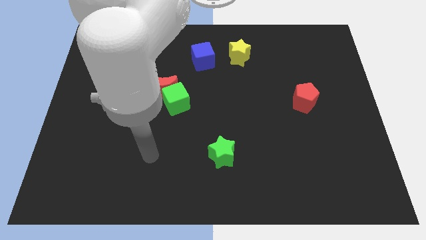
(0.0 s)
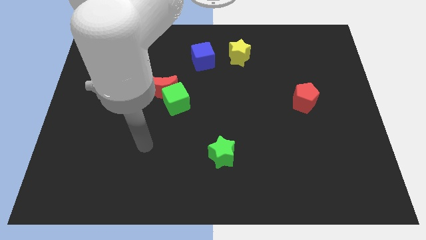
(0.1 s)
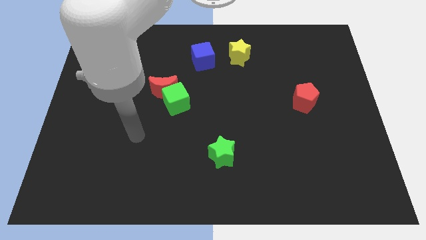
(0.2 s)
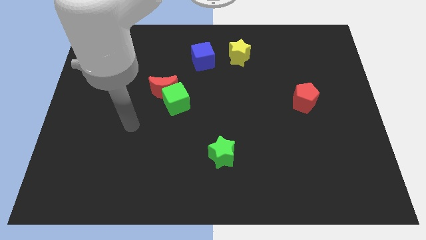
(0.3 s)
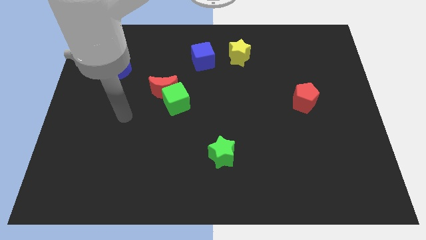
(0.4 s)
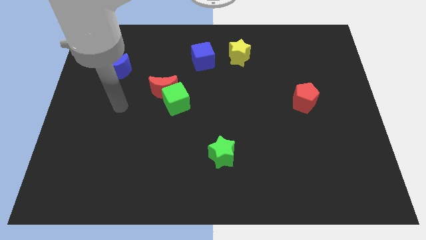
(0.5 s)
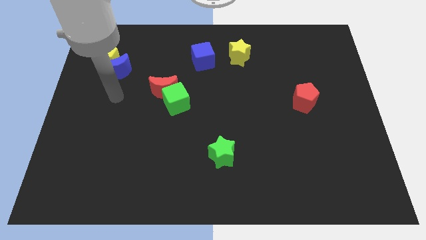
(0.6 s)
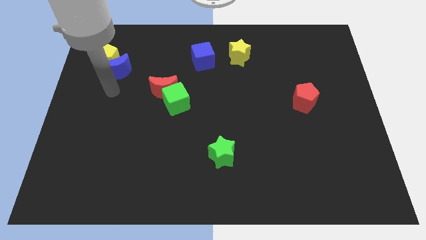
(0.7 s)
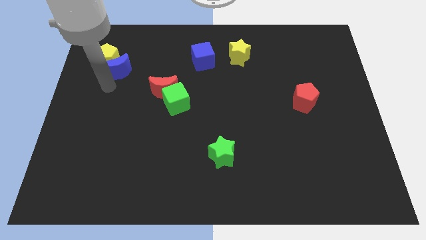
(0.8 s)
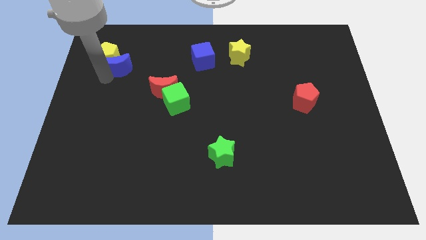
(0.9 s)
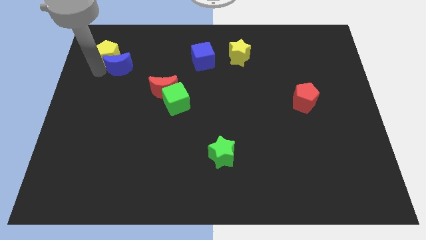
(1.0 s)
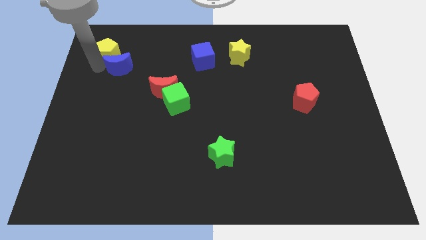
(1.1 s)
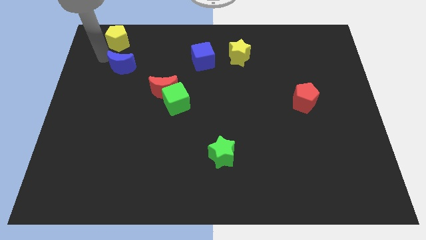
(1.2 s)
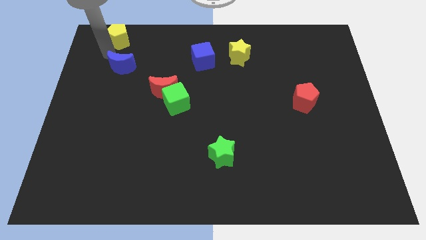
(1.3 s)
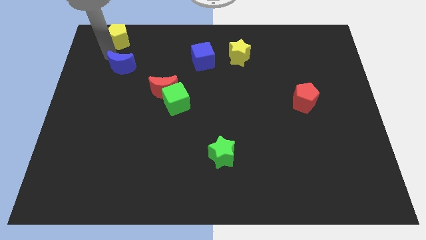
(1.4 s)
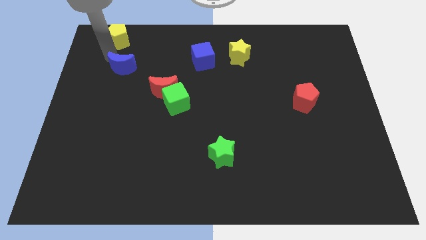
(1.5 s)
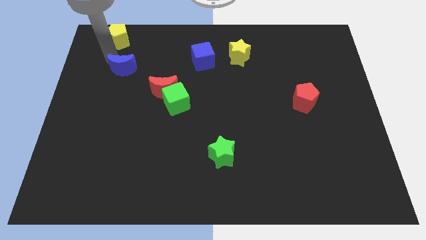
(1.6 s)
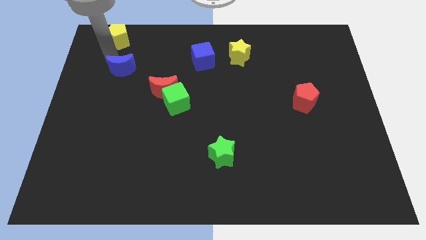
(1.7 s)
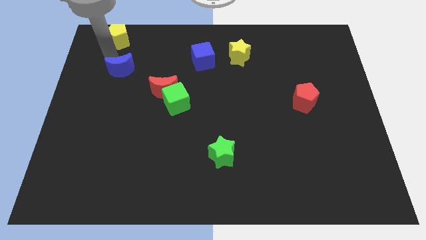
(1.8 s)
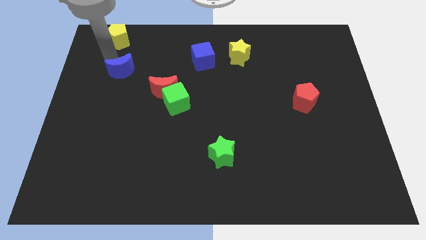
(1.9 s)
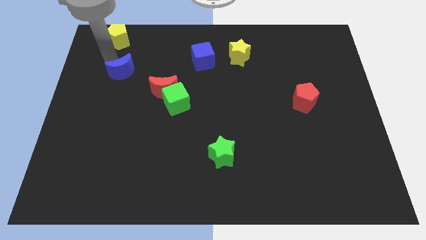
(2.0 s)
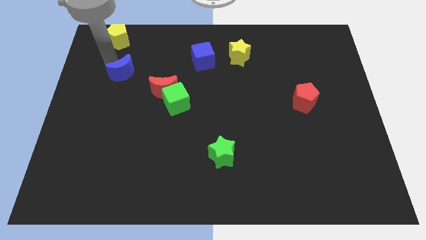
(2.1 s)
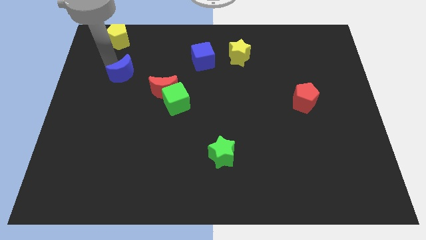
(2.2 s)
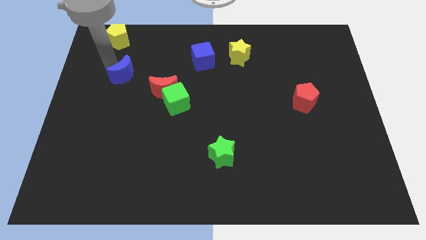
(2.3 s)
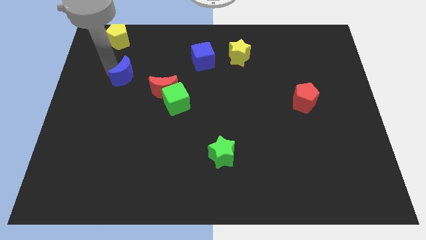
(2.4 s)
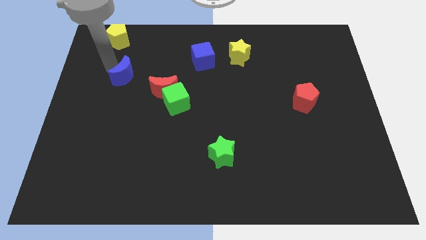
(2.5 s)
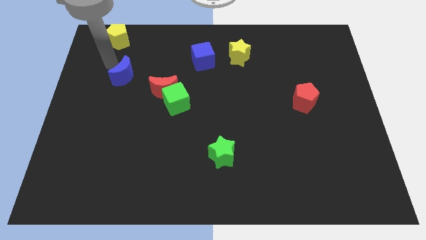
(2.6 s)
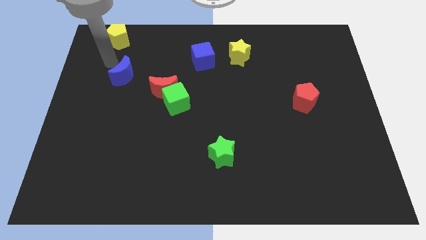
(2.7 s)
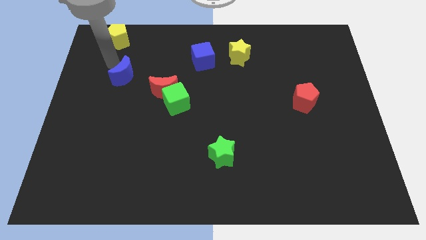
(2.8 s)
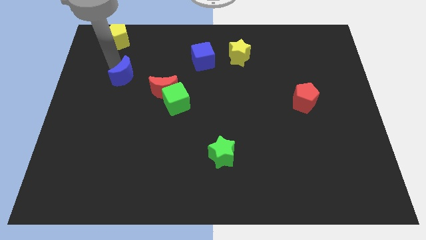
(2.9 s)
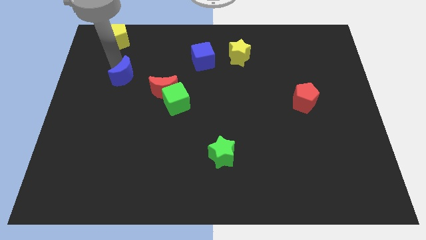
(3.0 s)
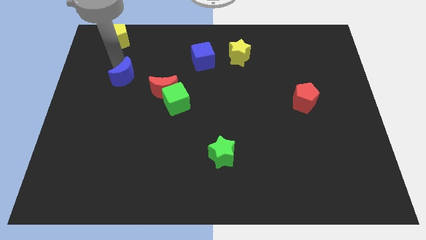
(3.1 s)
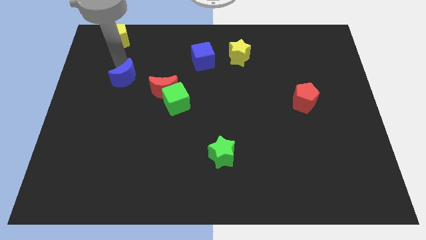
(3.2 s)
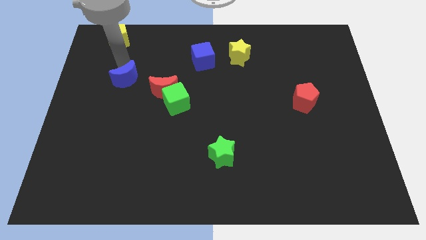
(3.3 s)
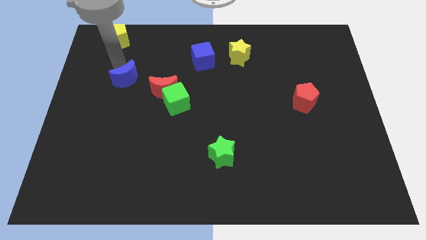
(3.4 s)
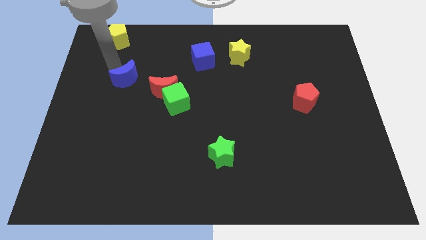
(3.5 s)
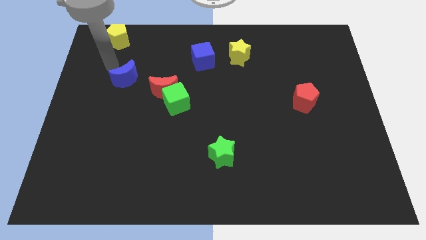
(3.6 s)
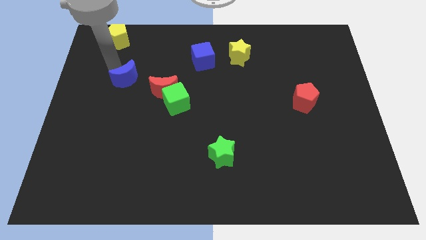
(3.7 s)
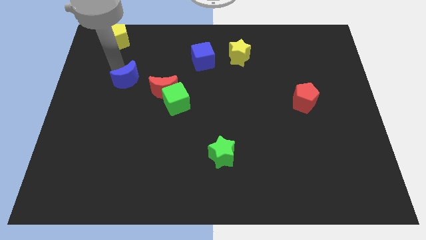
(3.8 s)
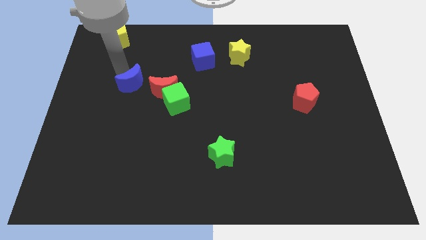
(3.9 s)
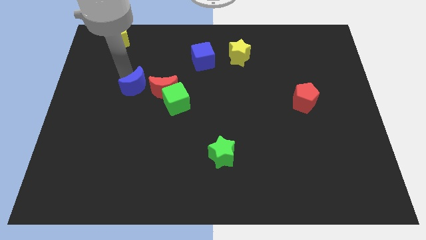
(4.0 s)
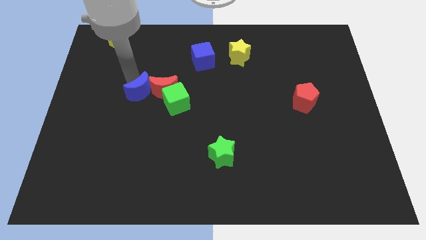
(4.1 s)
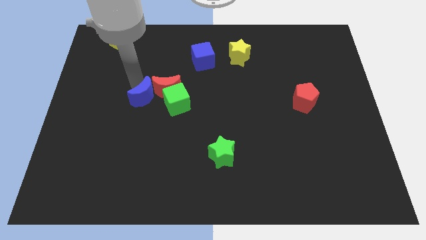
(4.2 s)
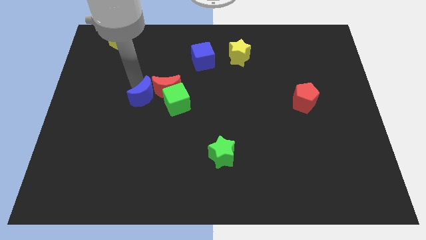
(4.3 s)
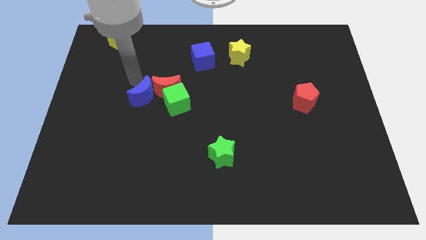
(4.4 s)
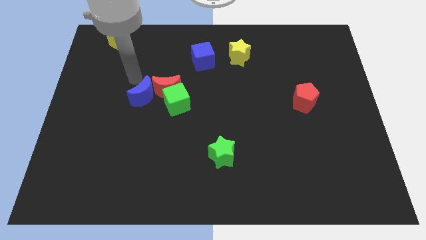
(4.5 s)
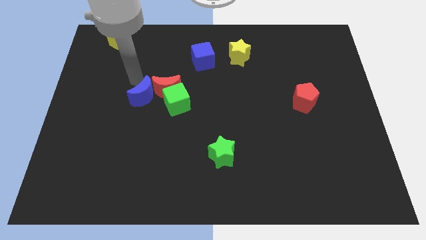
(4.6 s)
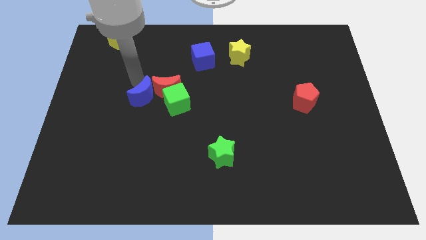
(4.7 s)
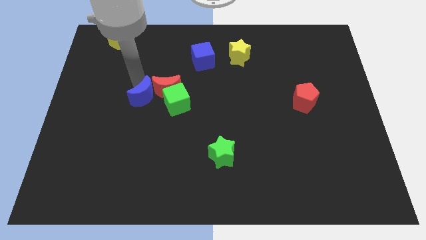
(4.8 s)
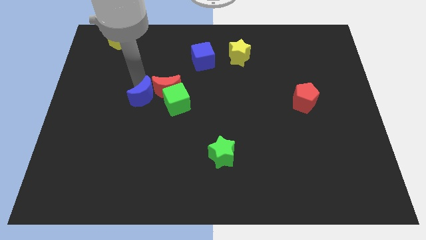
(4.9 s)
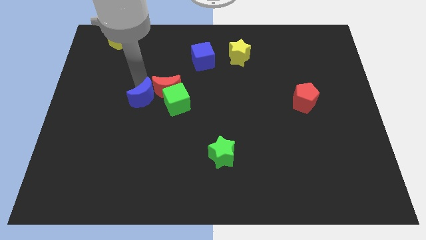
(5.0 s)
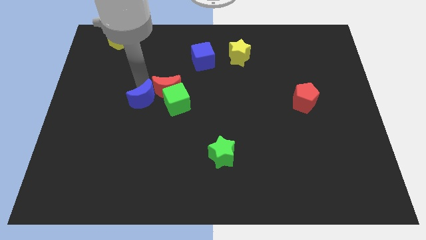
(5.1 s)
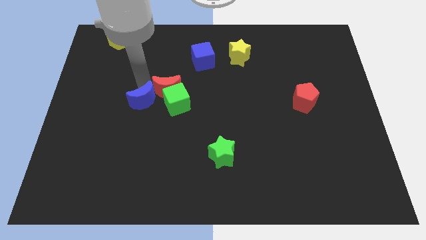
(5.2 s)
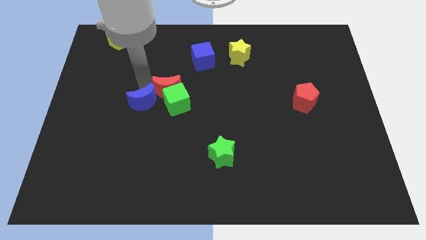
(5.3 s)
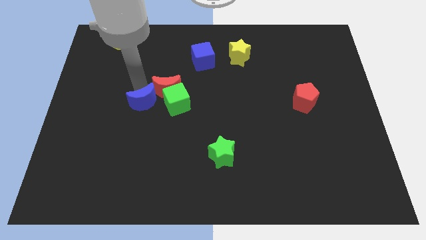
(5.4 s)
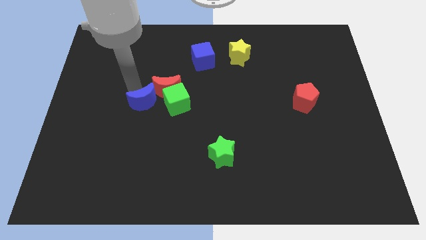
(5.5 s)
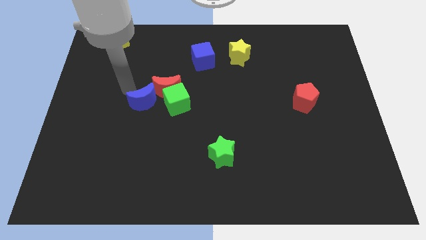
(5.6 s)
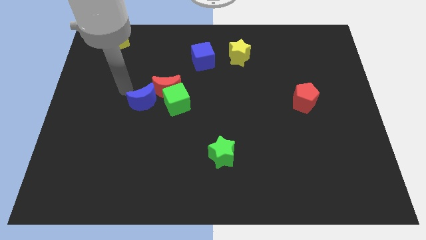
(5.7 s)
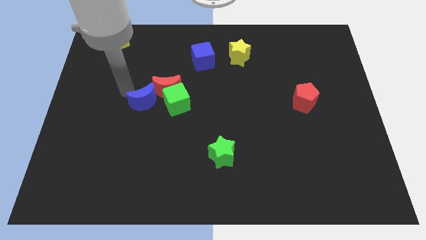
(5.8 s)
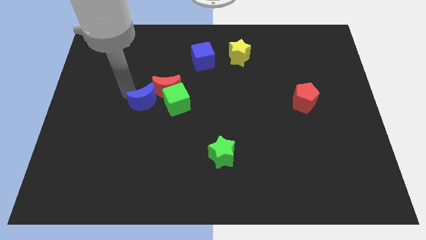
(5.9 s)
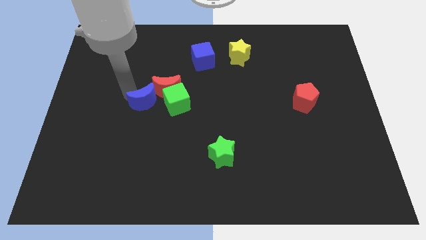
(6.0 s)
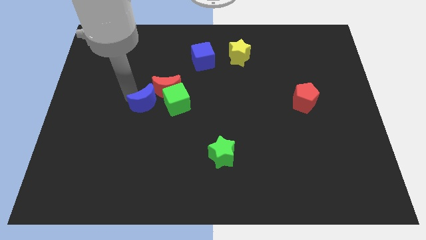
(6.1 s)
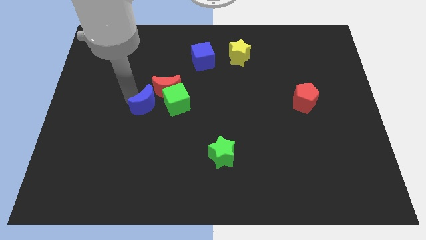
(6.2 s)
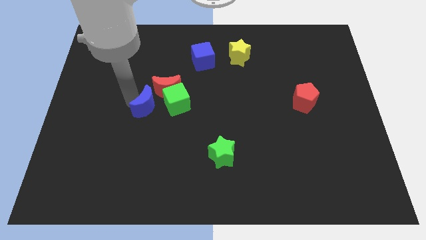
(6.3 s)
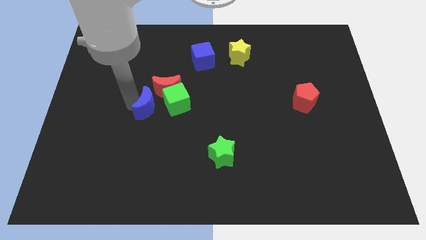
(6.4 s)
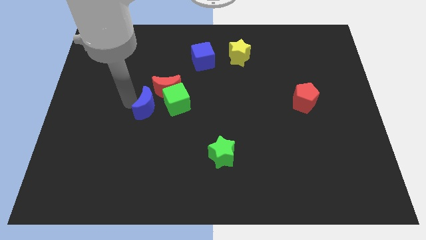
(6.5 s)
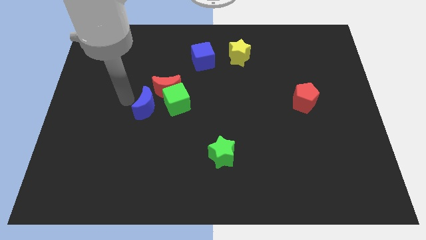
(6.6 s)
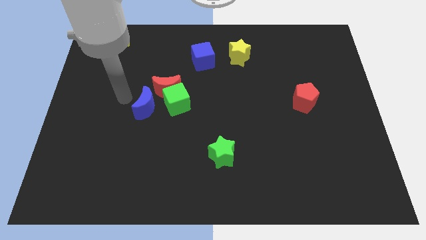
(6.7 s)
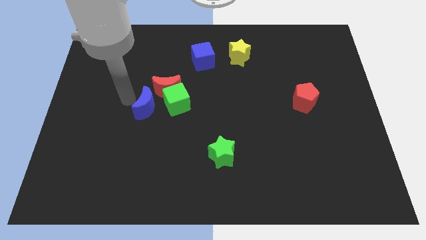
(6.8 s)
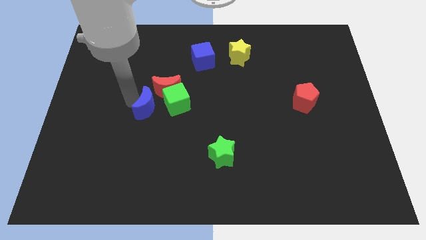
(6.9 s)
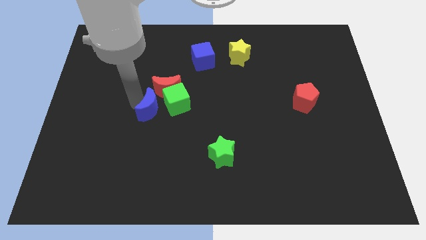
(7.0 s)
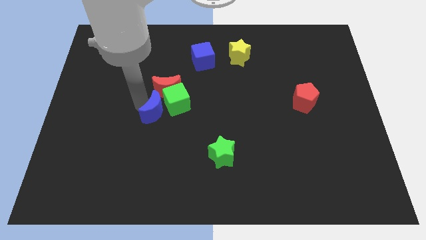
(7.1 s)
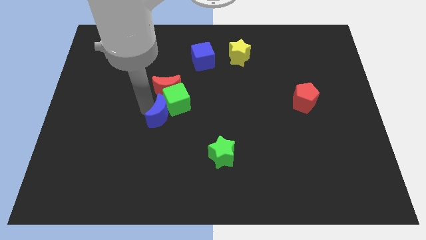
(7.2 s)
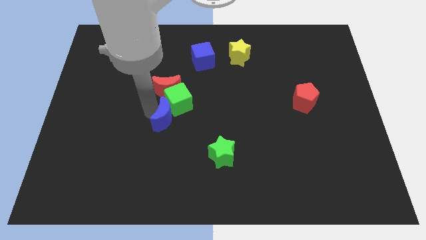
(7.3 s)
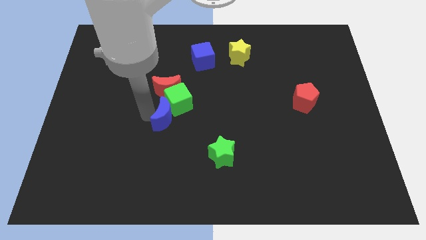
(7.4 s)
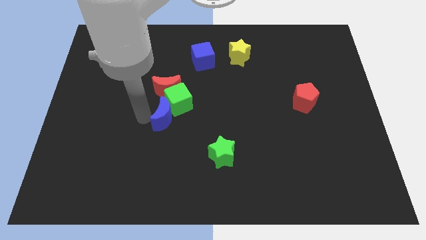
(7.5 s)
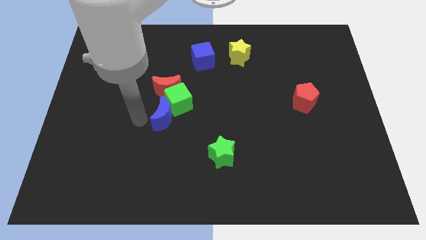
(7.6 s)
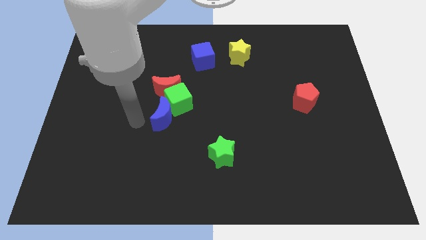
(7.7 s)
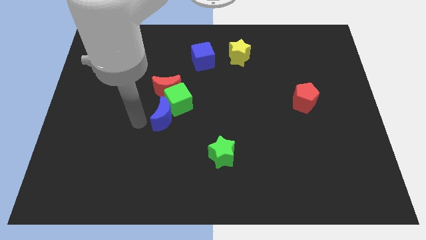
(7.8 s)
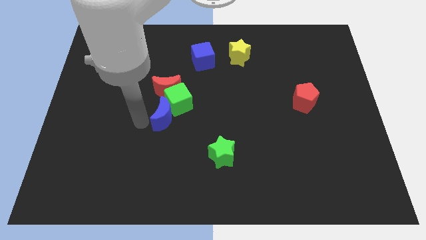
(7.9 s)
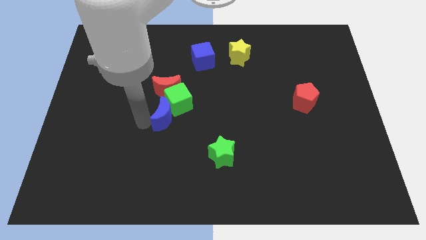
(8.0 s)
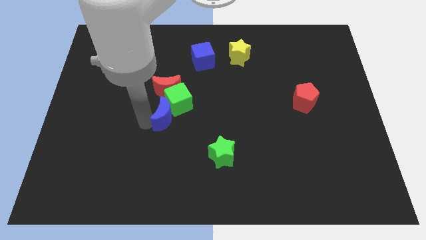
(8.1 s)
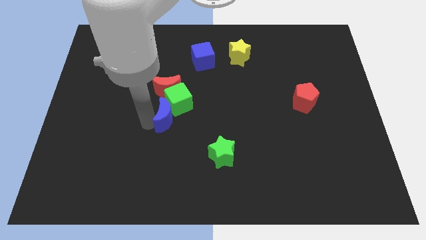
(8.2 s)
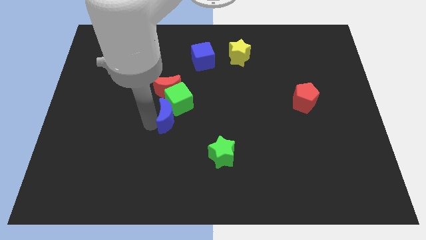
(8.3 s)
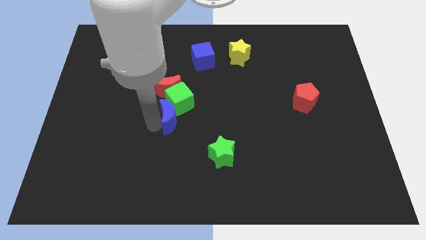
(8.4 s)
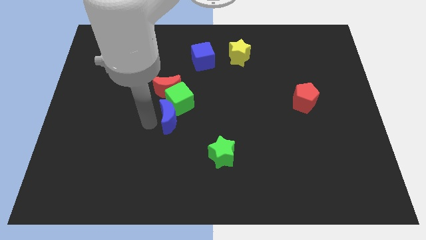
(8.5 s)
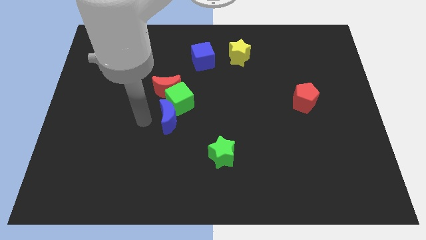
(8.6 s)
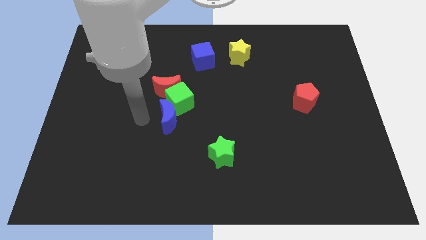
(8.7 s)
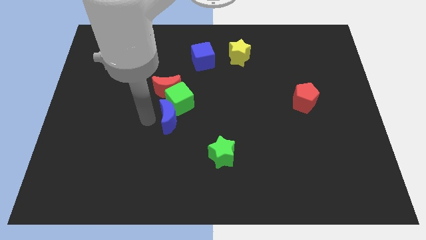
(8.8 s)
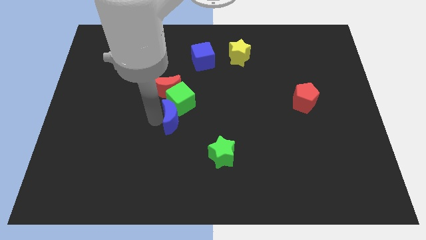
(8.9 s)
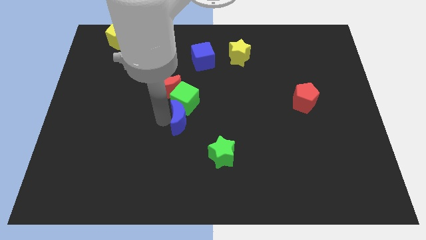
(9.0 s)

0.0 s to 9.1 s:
push the blue moon to the bottom right side of the green cube
